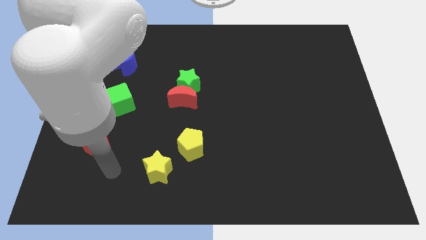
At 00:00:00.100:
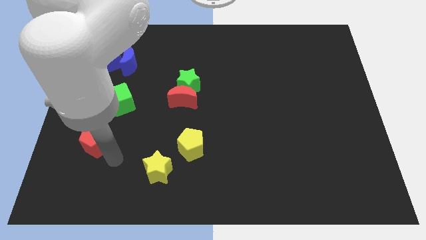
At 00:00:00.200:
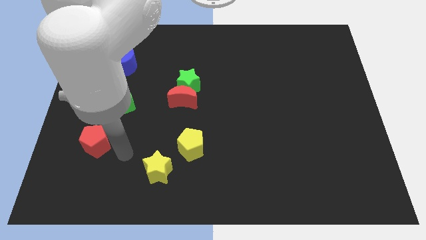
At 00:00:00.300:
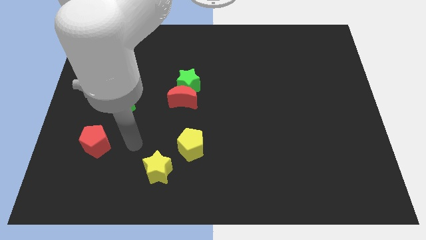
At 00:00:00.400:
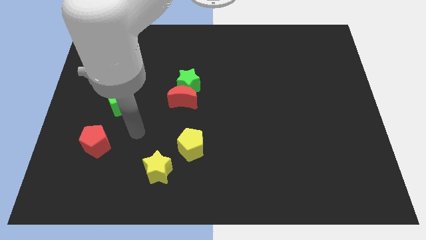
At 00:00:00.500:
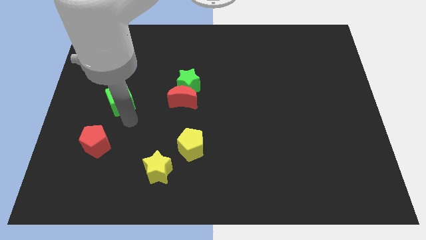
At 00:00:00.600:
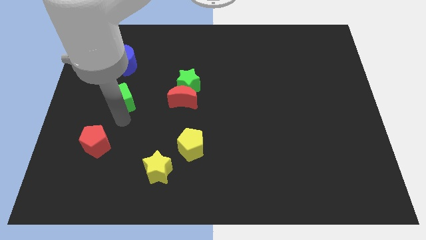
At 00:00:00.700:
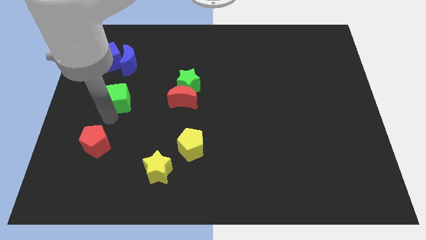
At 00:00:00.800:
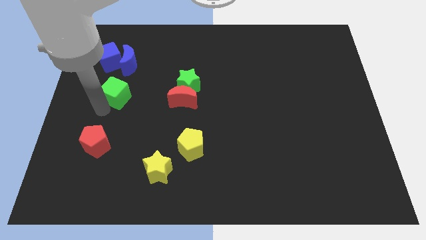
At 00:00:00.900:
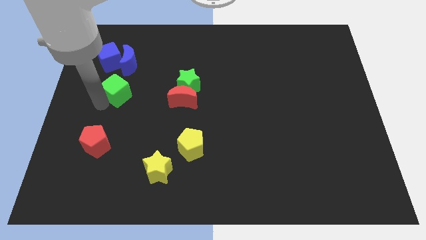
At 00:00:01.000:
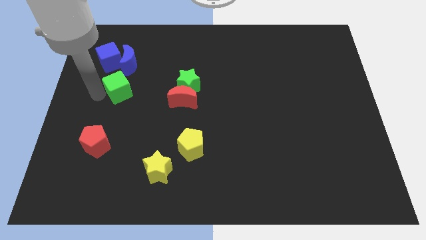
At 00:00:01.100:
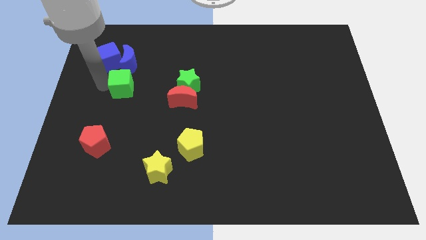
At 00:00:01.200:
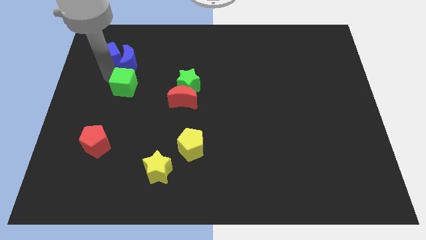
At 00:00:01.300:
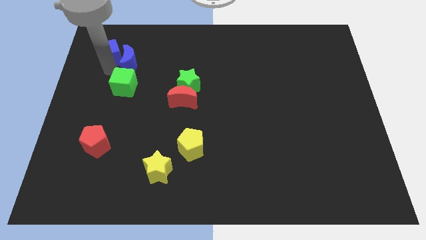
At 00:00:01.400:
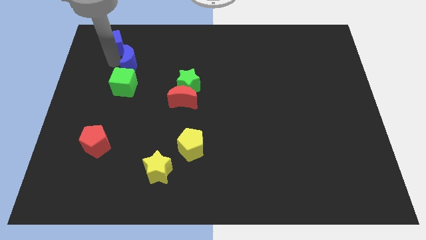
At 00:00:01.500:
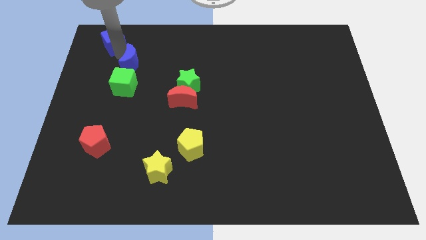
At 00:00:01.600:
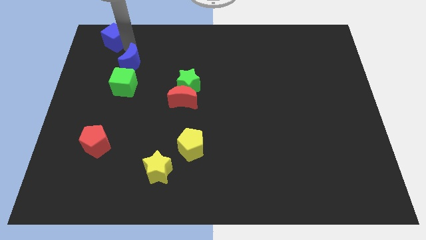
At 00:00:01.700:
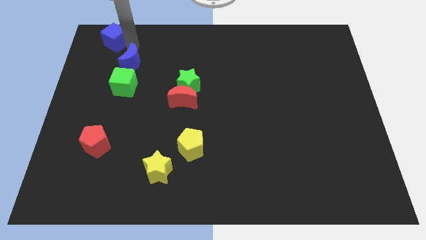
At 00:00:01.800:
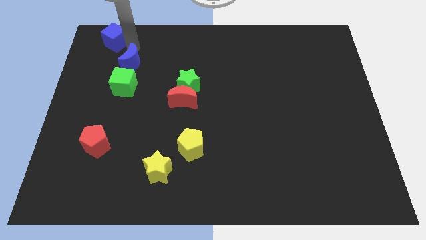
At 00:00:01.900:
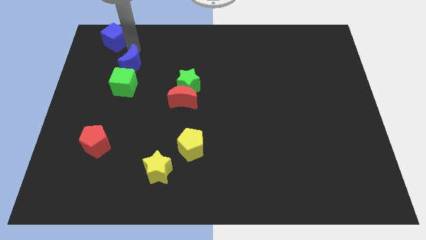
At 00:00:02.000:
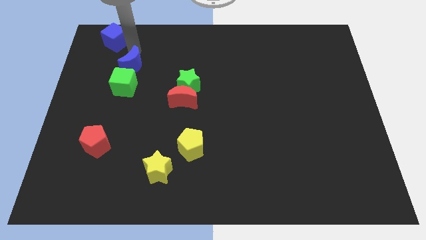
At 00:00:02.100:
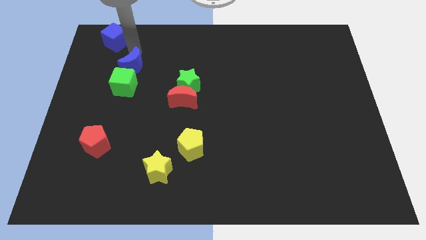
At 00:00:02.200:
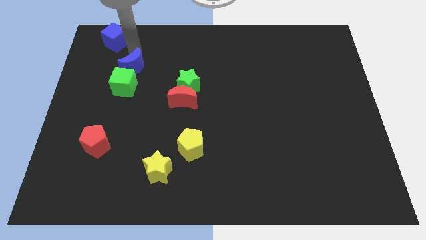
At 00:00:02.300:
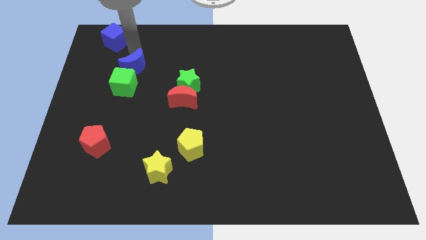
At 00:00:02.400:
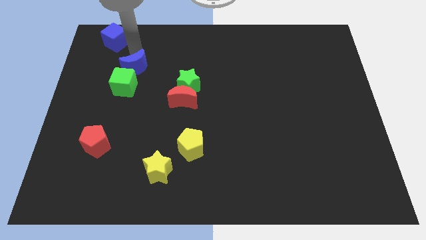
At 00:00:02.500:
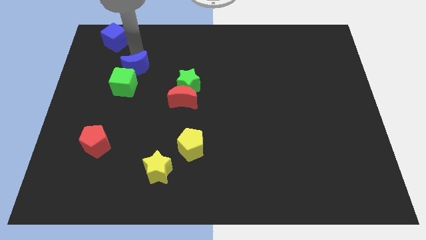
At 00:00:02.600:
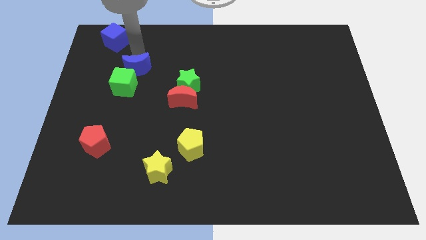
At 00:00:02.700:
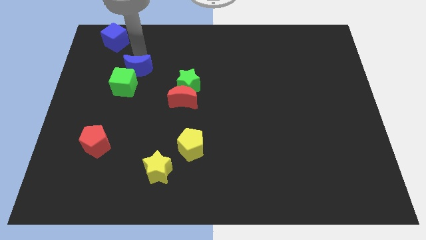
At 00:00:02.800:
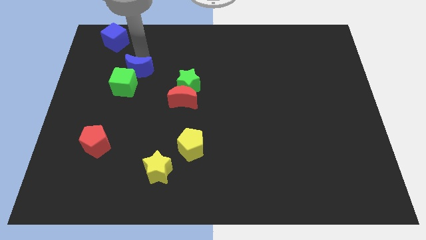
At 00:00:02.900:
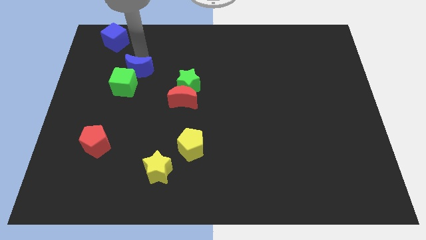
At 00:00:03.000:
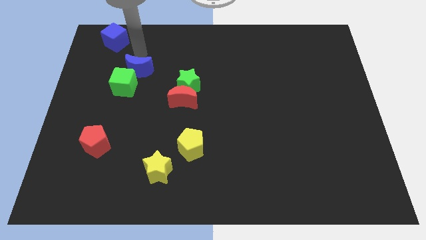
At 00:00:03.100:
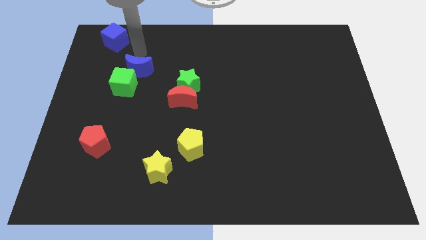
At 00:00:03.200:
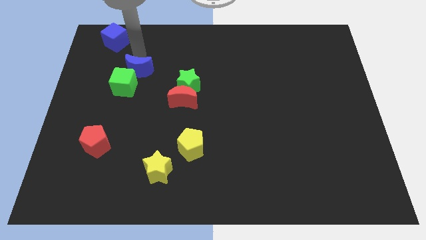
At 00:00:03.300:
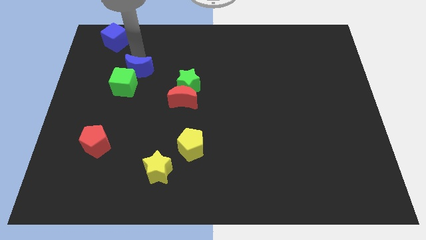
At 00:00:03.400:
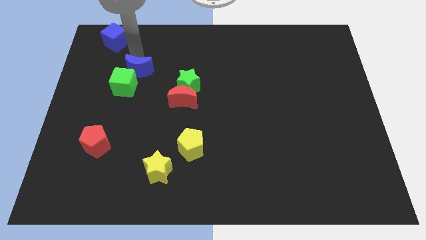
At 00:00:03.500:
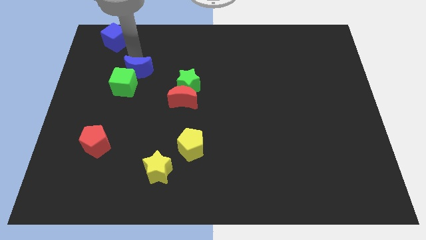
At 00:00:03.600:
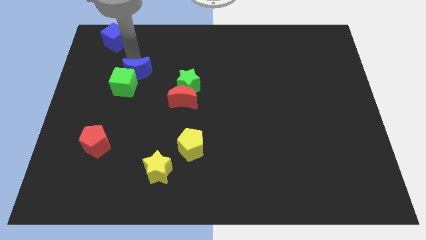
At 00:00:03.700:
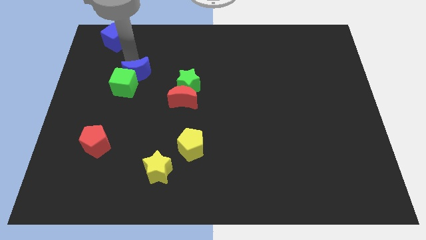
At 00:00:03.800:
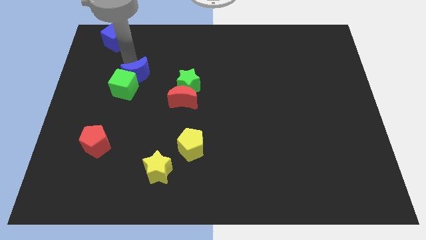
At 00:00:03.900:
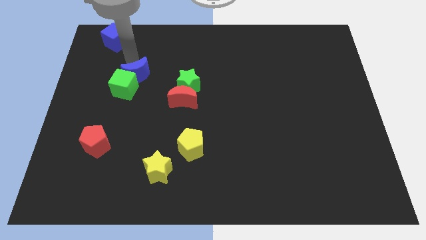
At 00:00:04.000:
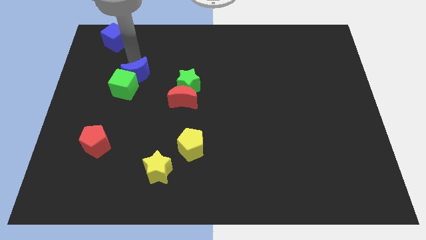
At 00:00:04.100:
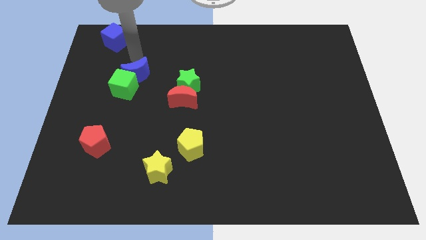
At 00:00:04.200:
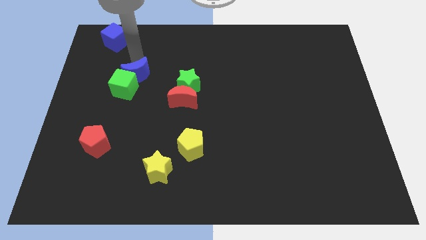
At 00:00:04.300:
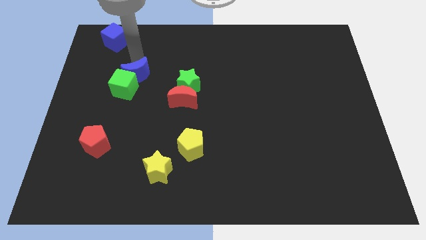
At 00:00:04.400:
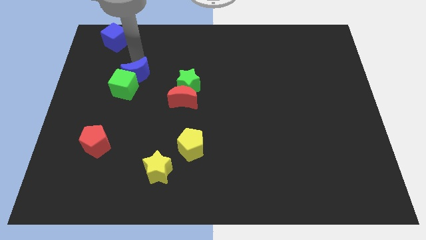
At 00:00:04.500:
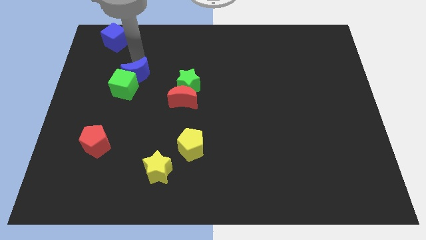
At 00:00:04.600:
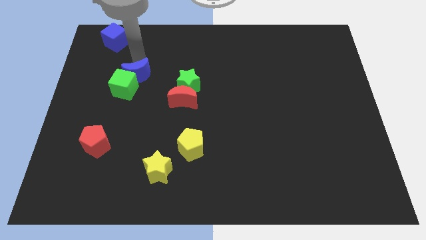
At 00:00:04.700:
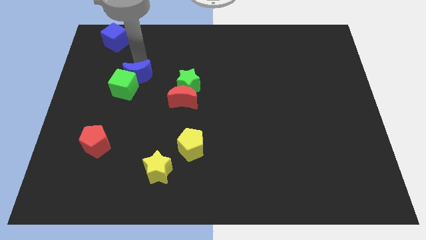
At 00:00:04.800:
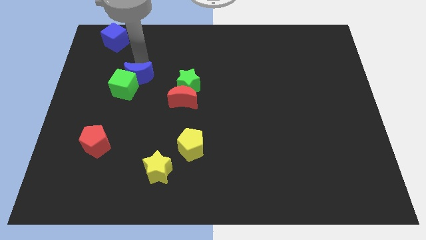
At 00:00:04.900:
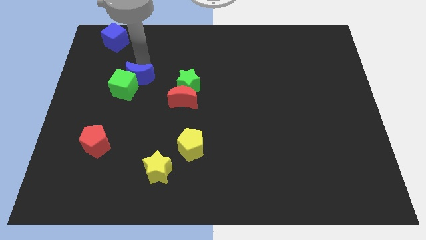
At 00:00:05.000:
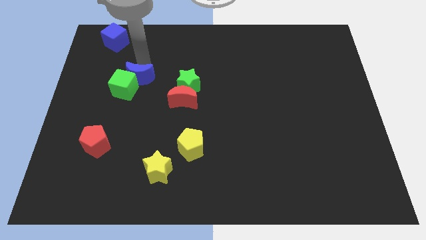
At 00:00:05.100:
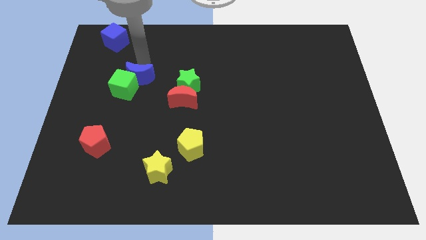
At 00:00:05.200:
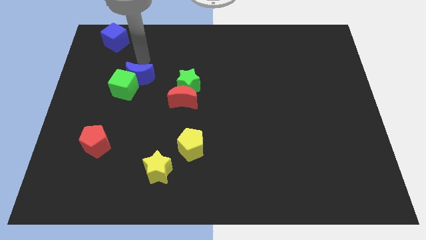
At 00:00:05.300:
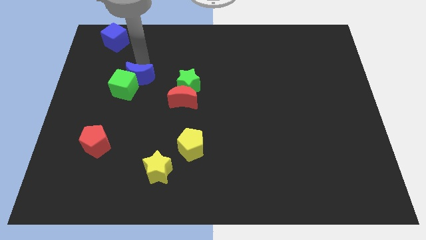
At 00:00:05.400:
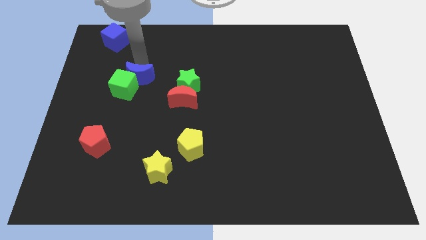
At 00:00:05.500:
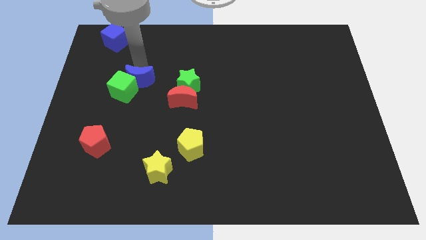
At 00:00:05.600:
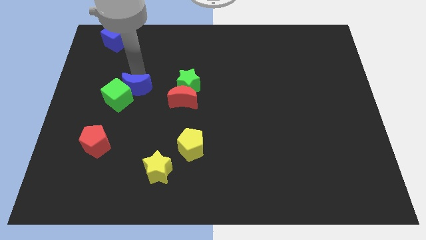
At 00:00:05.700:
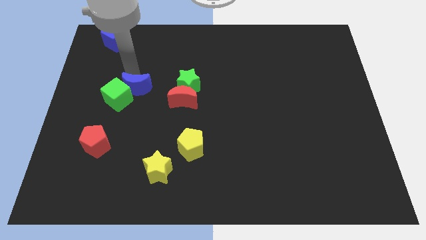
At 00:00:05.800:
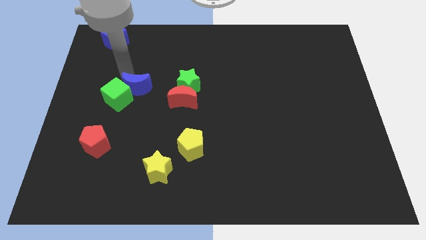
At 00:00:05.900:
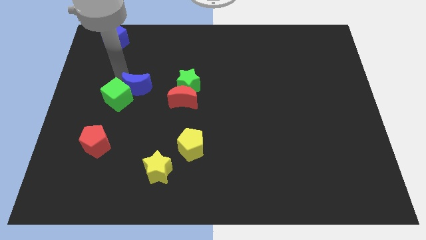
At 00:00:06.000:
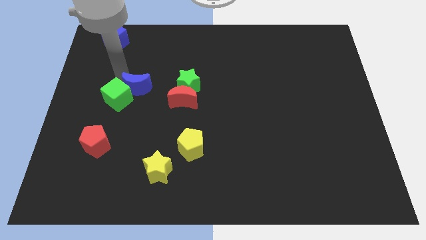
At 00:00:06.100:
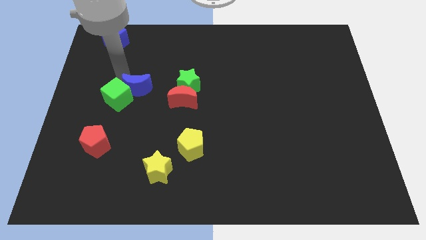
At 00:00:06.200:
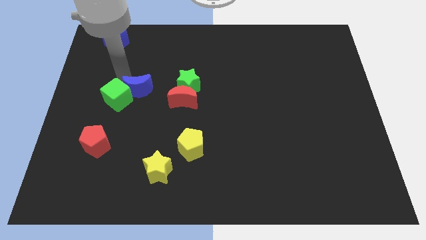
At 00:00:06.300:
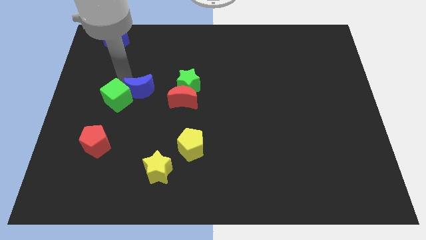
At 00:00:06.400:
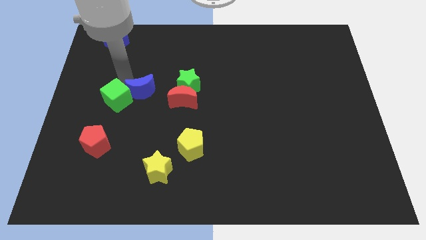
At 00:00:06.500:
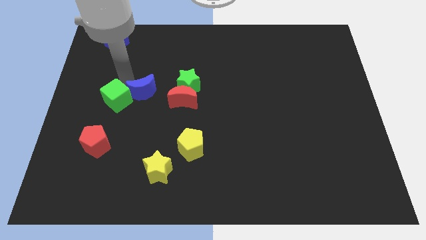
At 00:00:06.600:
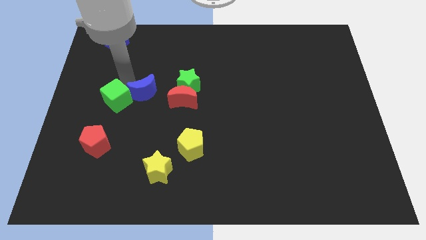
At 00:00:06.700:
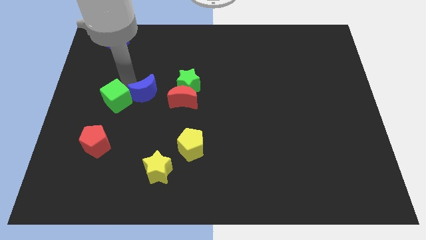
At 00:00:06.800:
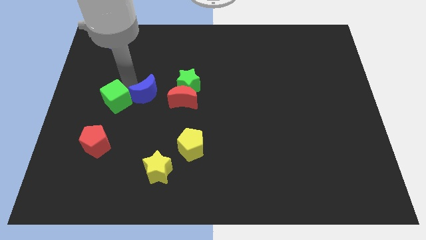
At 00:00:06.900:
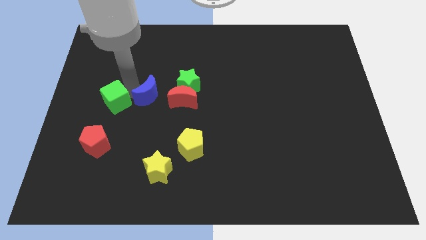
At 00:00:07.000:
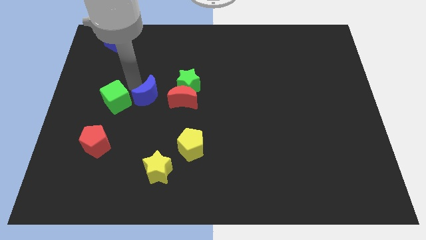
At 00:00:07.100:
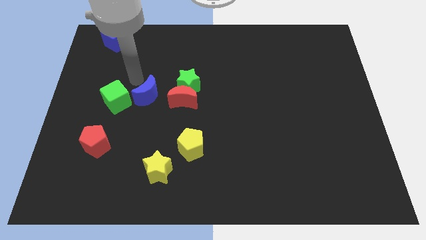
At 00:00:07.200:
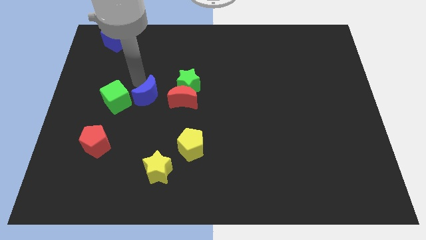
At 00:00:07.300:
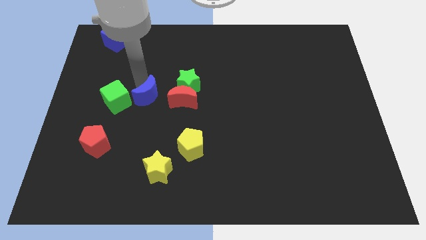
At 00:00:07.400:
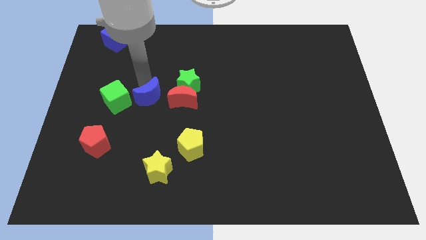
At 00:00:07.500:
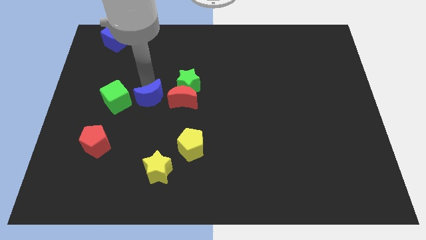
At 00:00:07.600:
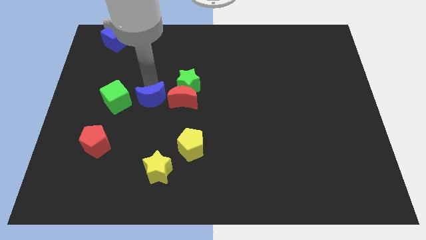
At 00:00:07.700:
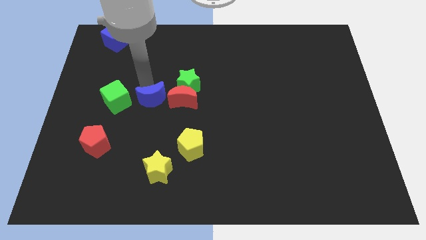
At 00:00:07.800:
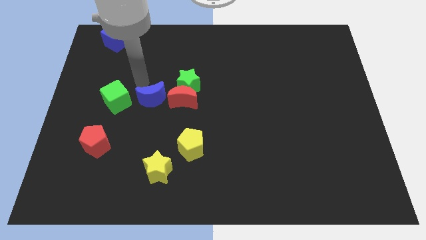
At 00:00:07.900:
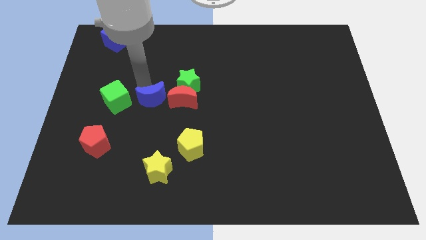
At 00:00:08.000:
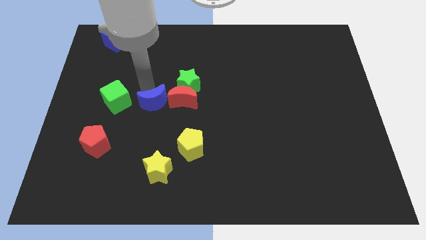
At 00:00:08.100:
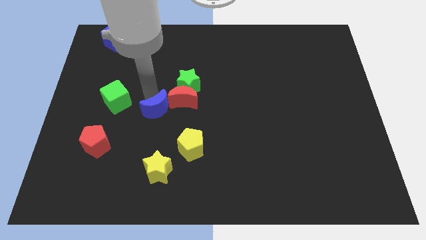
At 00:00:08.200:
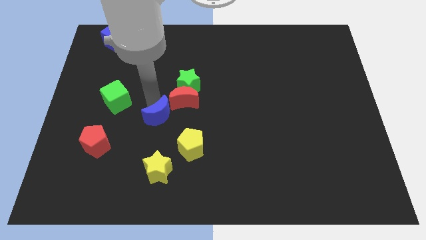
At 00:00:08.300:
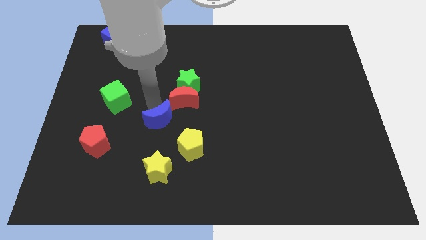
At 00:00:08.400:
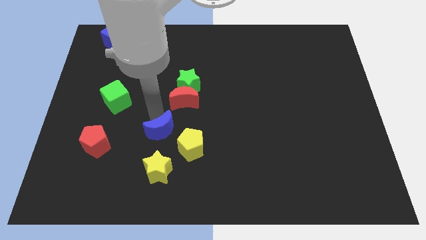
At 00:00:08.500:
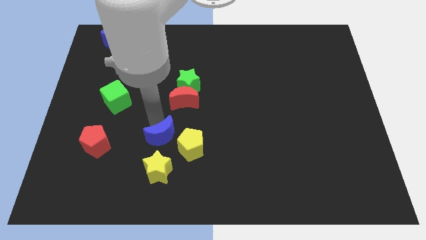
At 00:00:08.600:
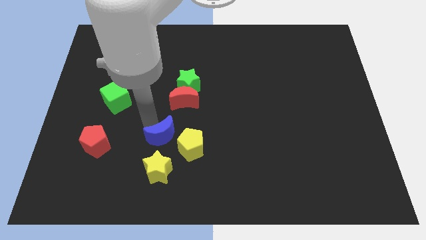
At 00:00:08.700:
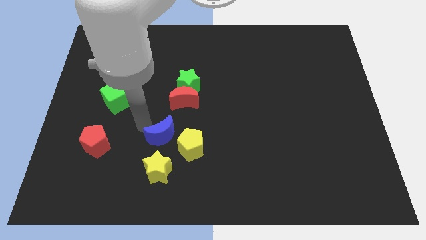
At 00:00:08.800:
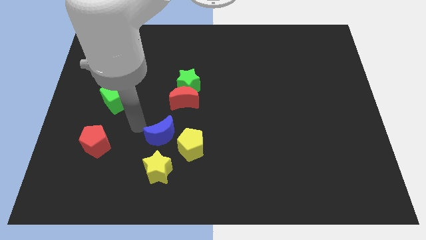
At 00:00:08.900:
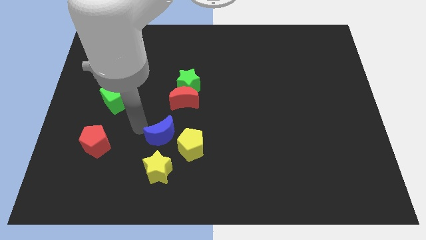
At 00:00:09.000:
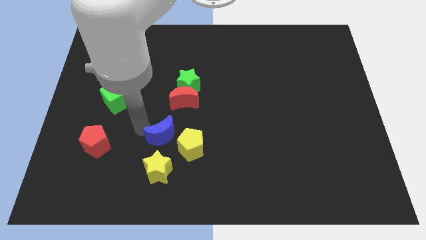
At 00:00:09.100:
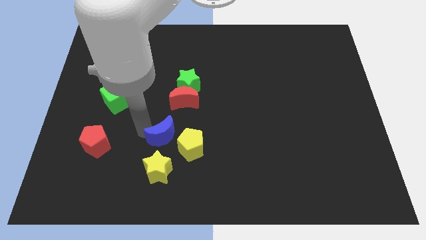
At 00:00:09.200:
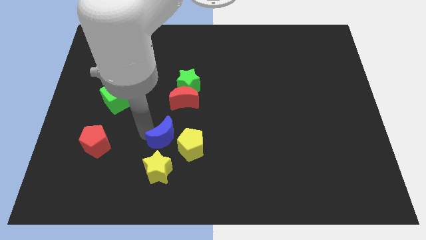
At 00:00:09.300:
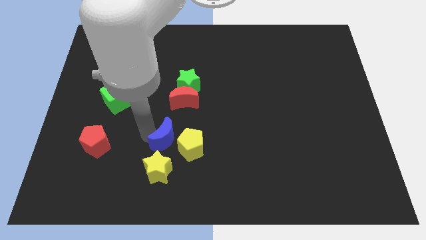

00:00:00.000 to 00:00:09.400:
slide the blue moon close to the yellow pentagon
